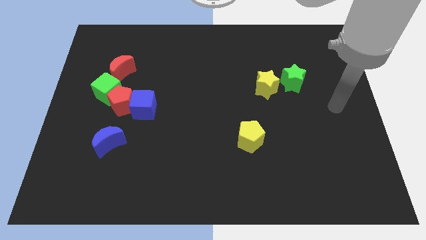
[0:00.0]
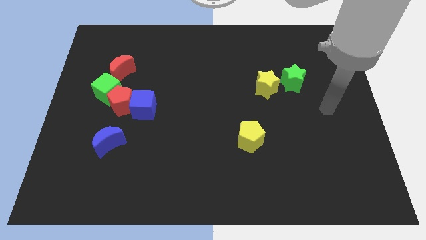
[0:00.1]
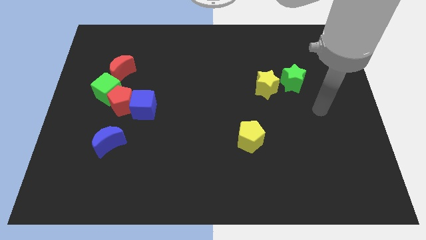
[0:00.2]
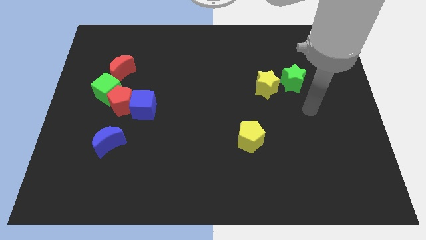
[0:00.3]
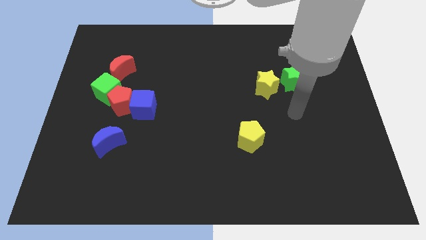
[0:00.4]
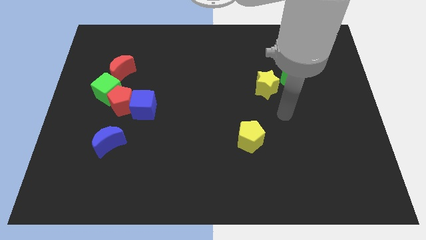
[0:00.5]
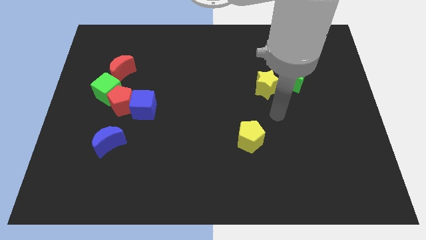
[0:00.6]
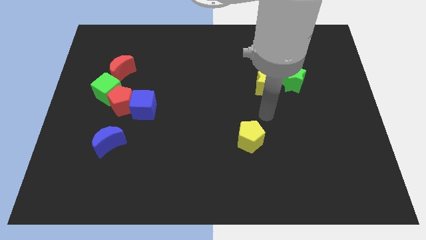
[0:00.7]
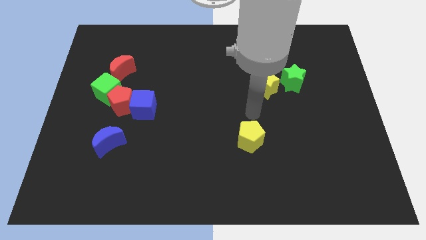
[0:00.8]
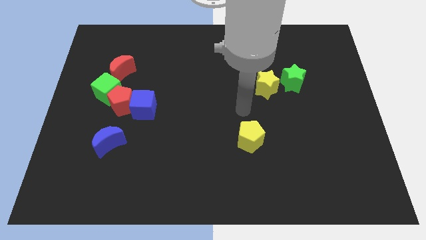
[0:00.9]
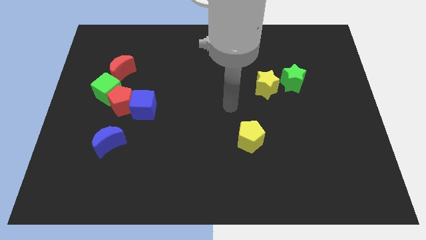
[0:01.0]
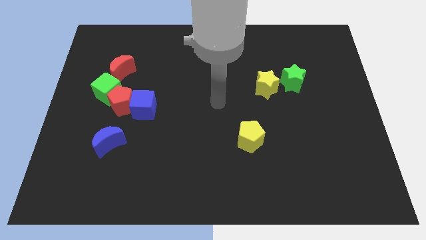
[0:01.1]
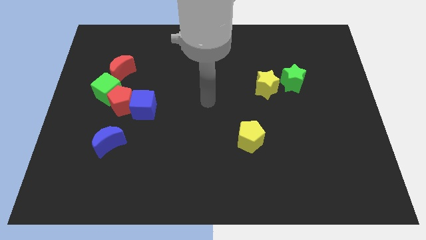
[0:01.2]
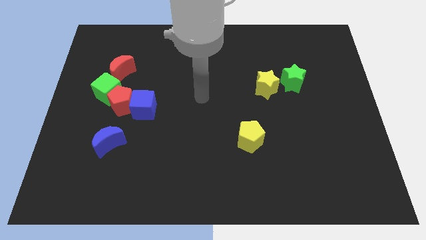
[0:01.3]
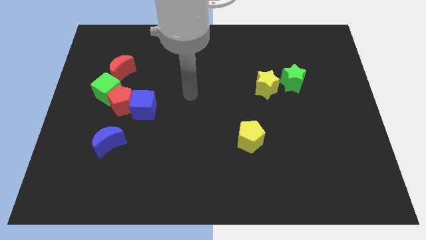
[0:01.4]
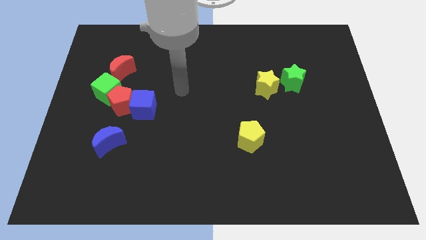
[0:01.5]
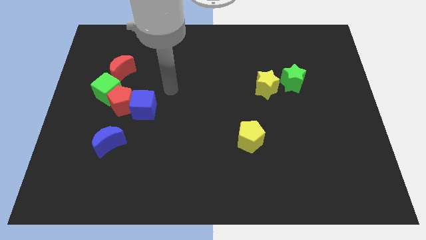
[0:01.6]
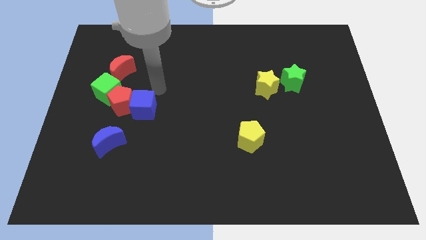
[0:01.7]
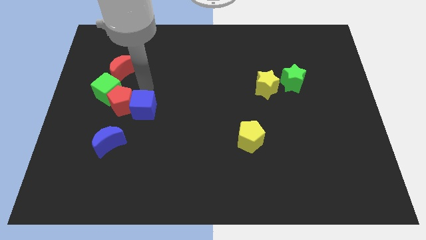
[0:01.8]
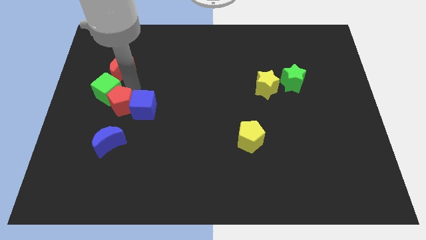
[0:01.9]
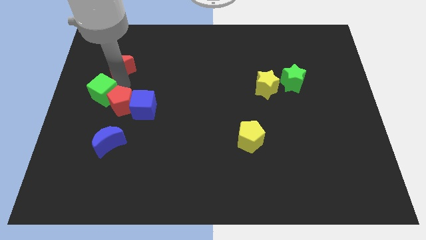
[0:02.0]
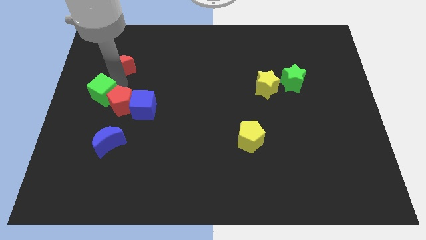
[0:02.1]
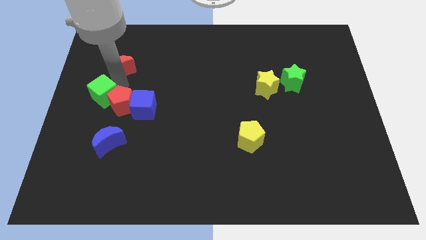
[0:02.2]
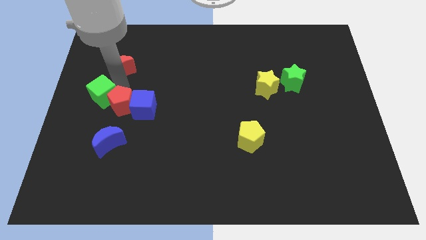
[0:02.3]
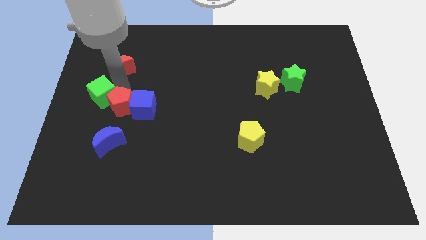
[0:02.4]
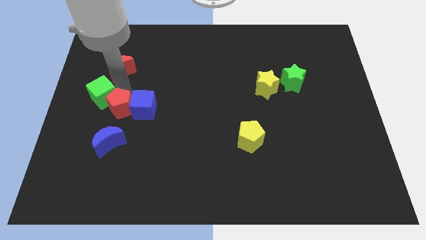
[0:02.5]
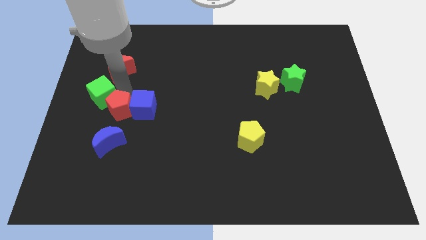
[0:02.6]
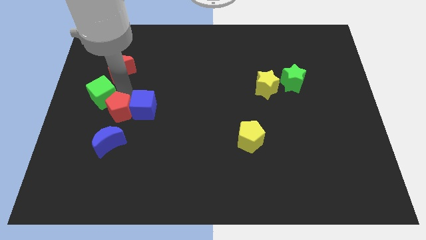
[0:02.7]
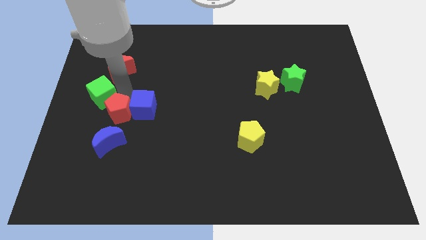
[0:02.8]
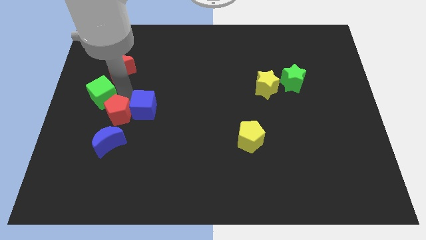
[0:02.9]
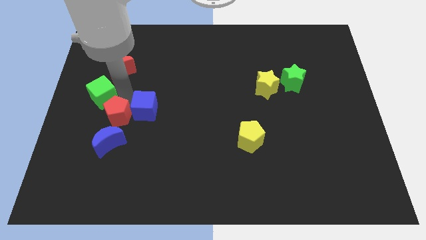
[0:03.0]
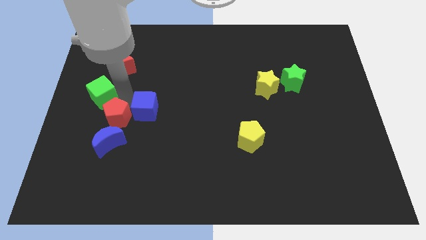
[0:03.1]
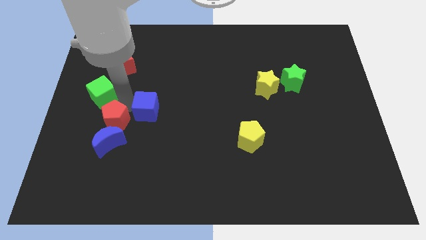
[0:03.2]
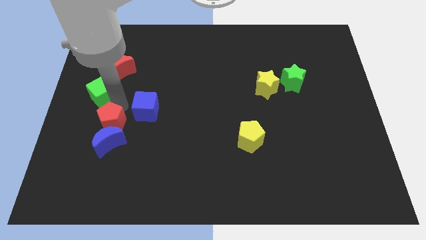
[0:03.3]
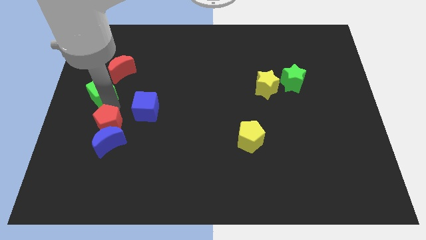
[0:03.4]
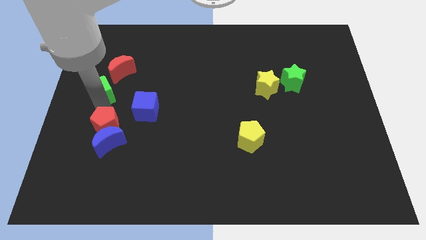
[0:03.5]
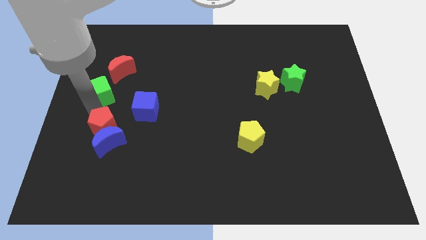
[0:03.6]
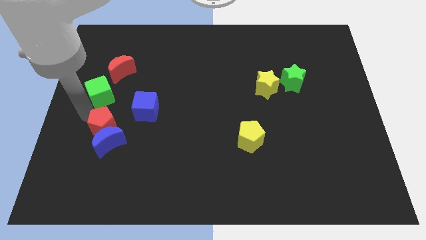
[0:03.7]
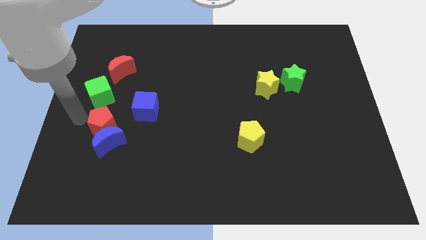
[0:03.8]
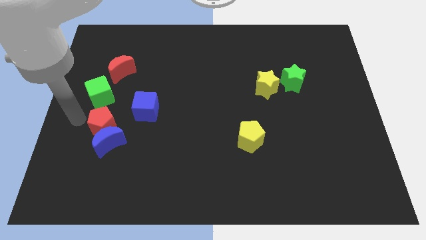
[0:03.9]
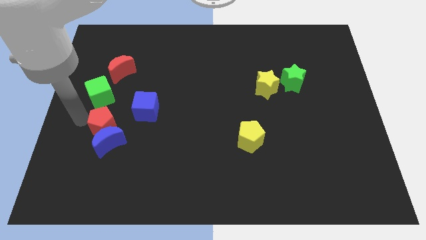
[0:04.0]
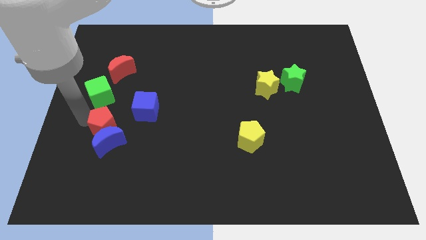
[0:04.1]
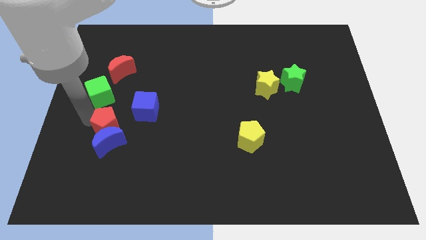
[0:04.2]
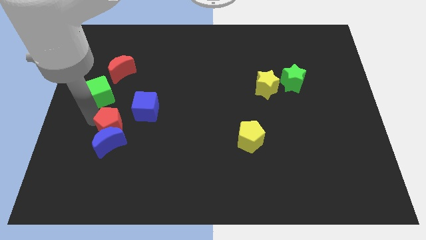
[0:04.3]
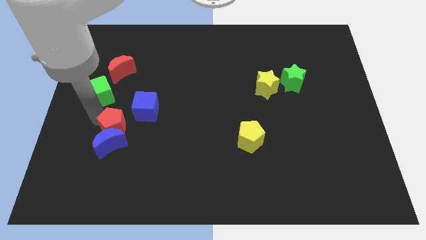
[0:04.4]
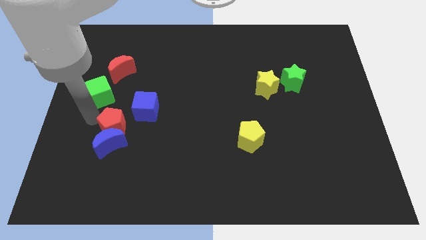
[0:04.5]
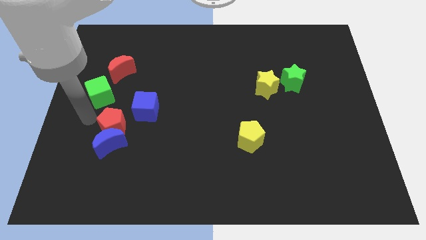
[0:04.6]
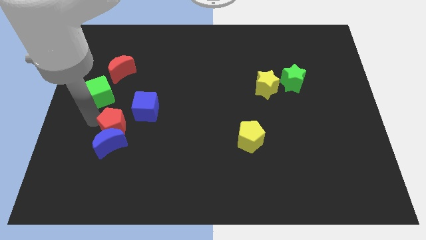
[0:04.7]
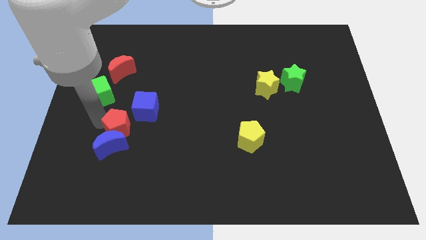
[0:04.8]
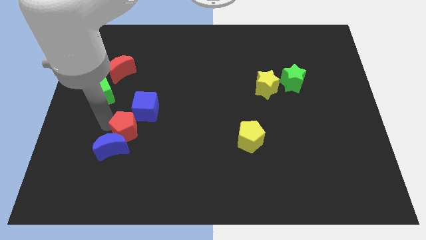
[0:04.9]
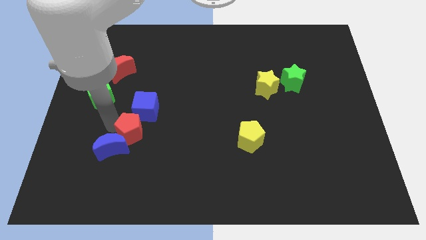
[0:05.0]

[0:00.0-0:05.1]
push the red pentagon a bit diagonally down and to the right

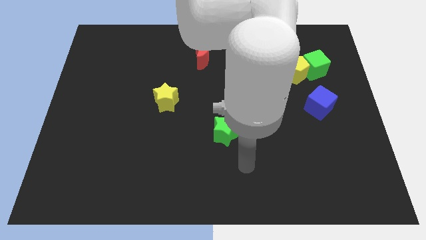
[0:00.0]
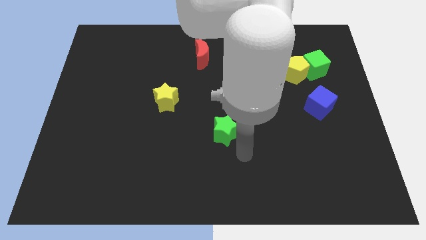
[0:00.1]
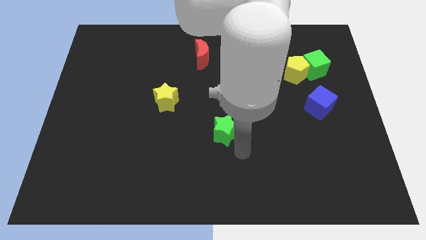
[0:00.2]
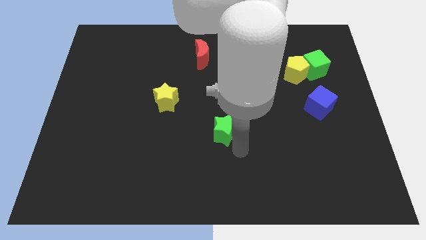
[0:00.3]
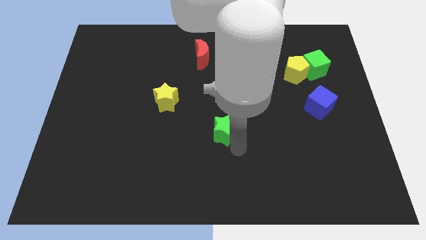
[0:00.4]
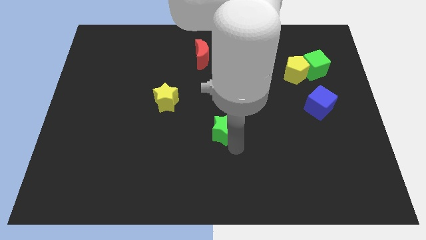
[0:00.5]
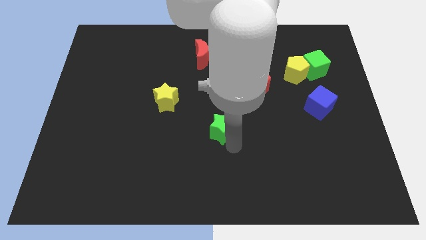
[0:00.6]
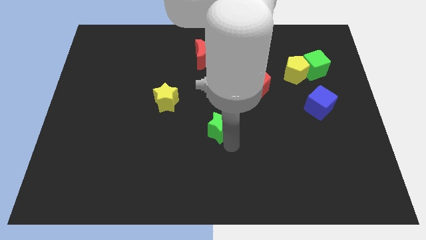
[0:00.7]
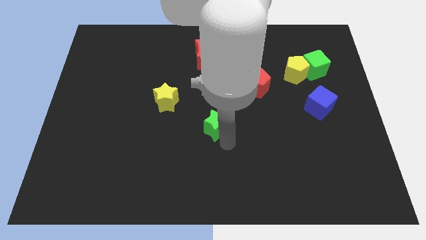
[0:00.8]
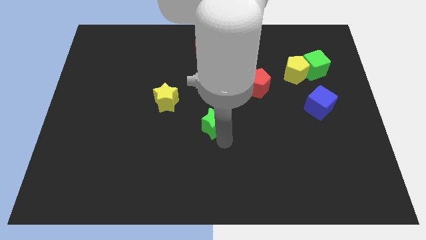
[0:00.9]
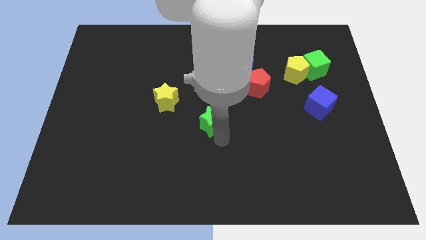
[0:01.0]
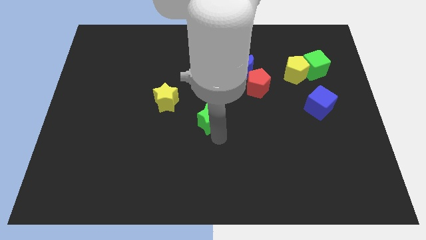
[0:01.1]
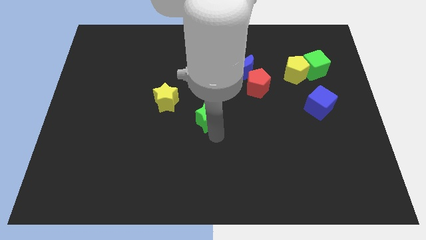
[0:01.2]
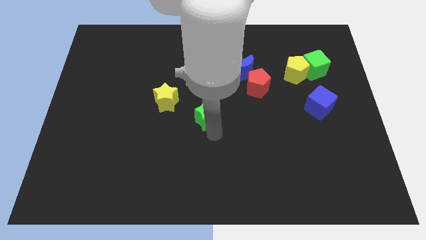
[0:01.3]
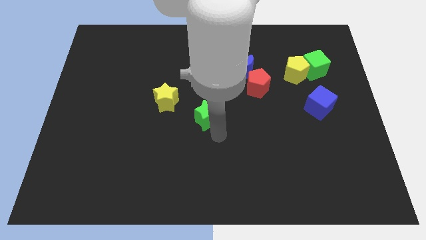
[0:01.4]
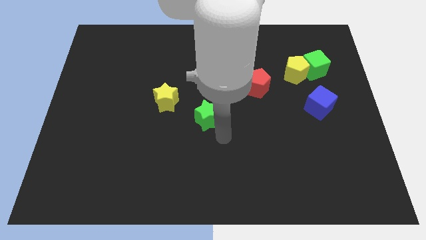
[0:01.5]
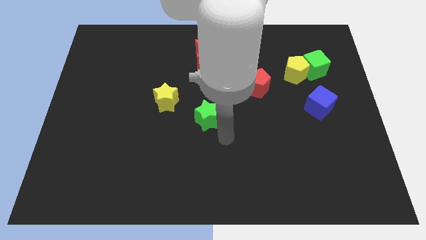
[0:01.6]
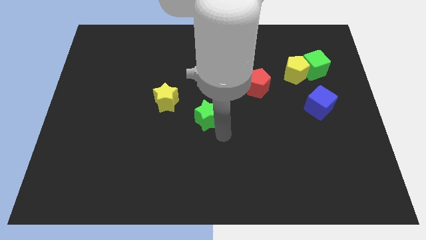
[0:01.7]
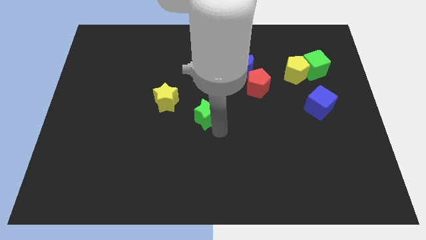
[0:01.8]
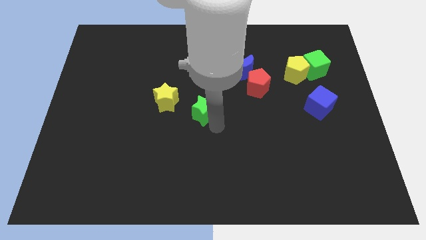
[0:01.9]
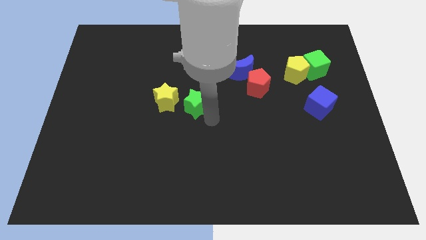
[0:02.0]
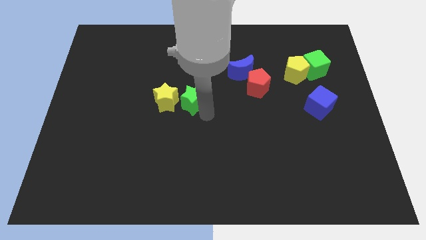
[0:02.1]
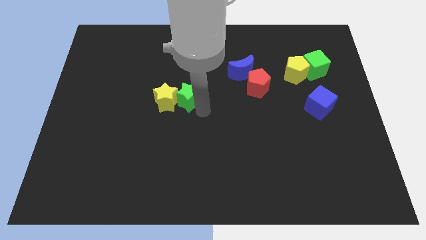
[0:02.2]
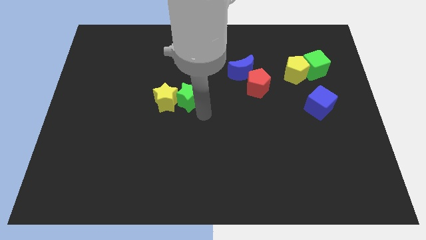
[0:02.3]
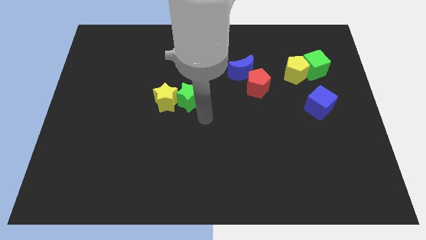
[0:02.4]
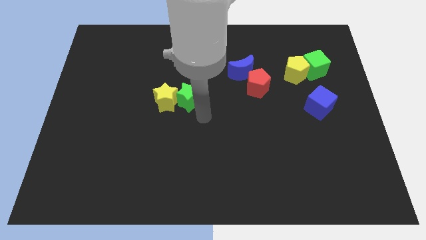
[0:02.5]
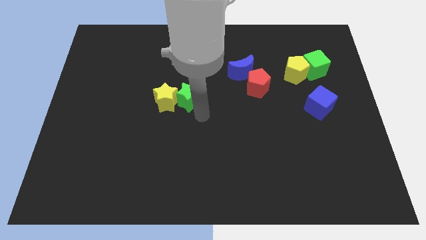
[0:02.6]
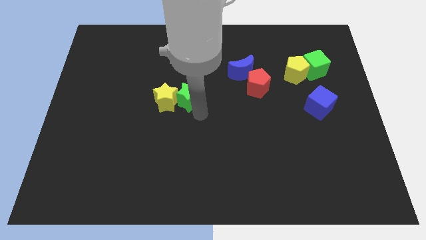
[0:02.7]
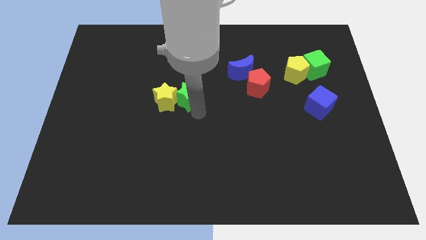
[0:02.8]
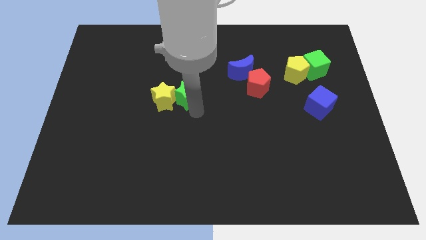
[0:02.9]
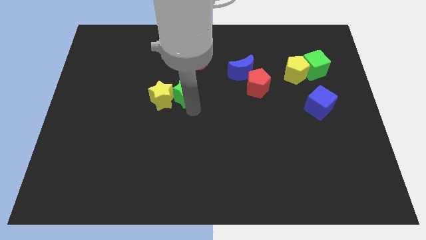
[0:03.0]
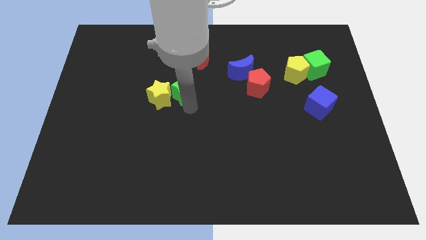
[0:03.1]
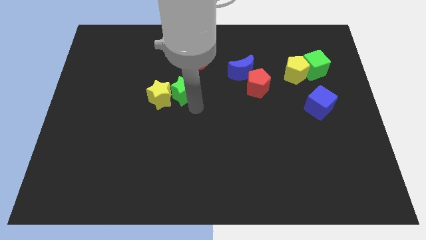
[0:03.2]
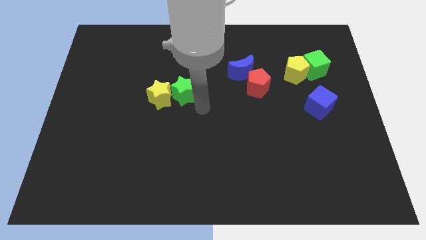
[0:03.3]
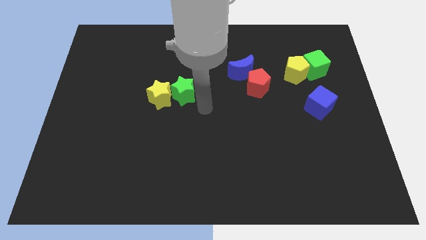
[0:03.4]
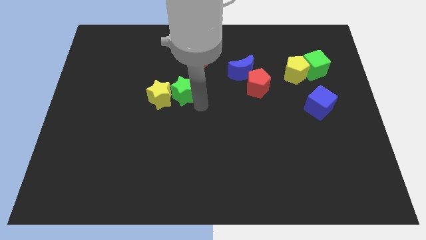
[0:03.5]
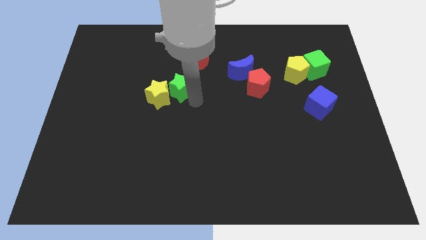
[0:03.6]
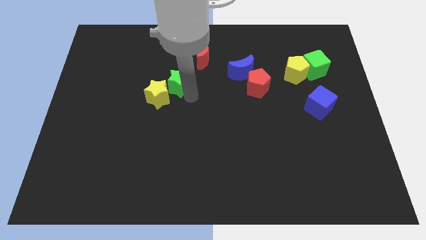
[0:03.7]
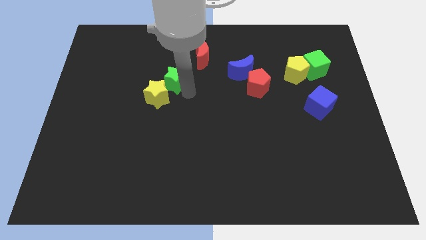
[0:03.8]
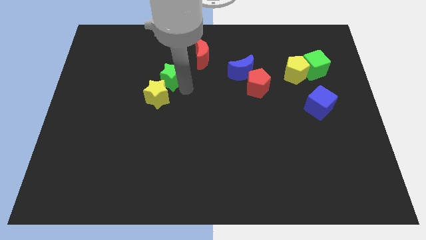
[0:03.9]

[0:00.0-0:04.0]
slide the green star diagonally up and left
